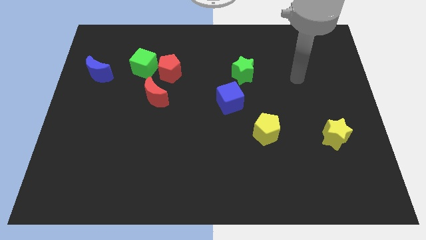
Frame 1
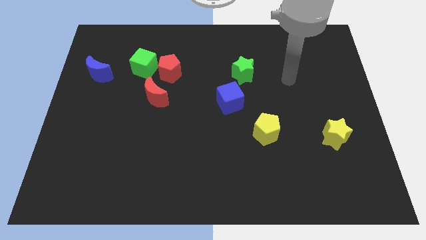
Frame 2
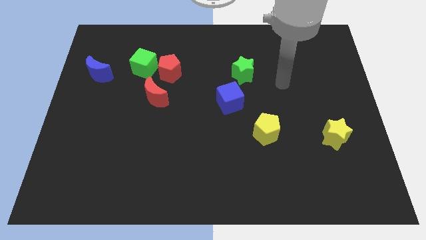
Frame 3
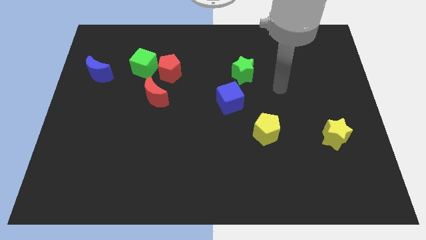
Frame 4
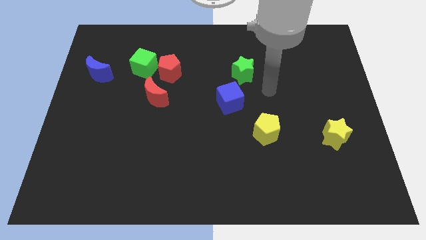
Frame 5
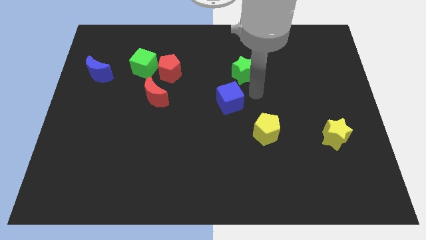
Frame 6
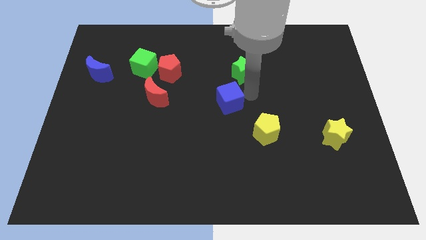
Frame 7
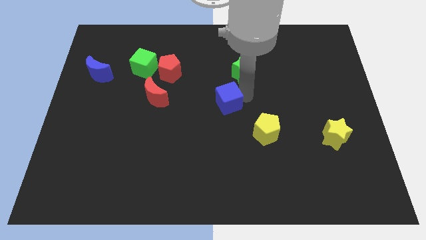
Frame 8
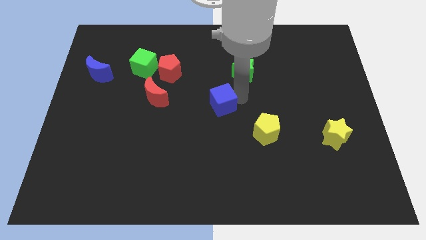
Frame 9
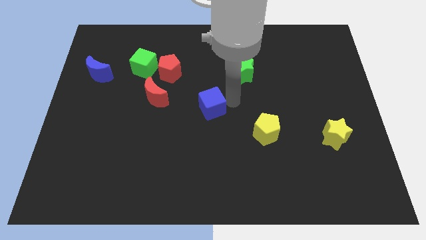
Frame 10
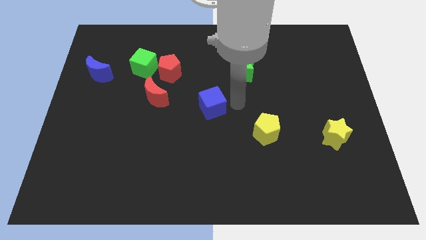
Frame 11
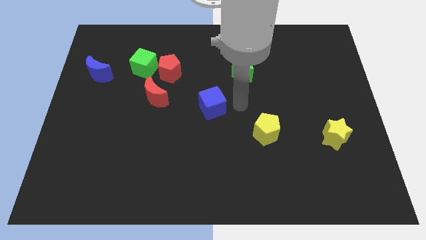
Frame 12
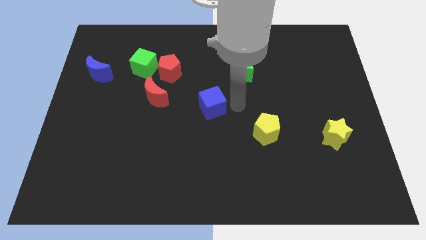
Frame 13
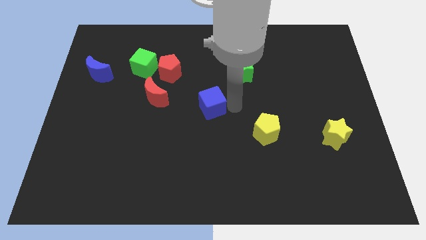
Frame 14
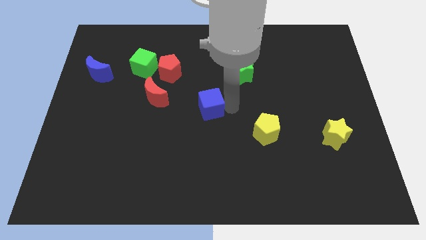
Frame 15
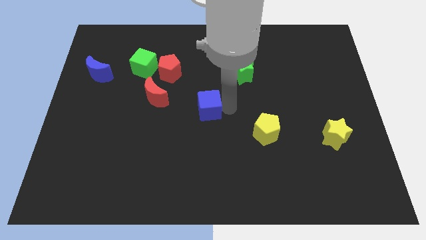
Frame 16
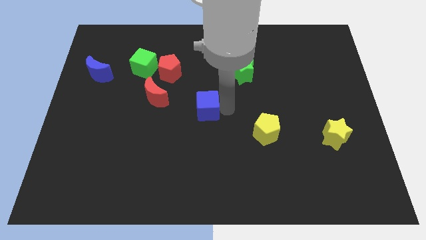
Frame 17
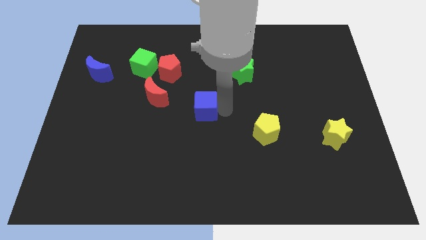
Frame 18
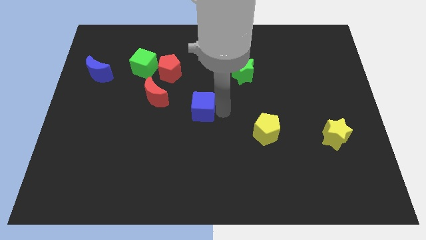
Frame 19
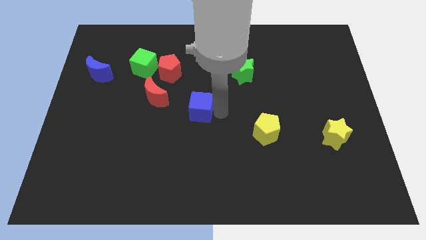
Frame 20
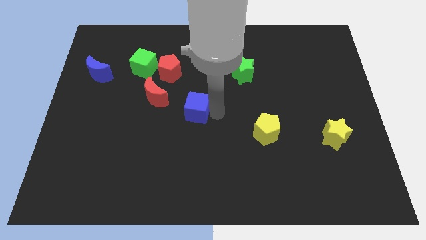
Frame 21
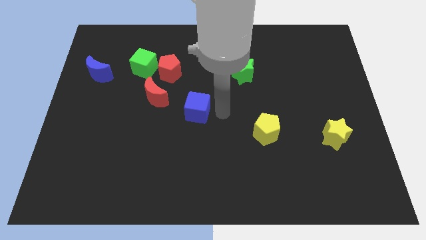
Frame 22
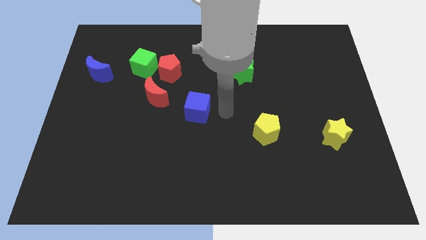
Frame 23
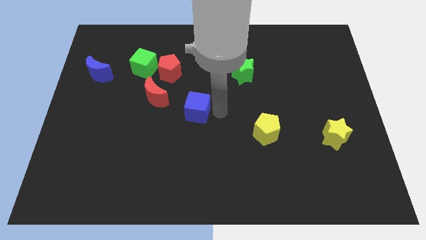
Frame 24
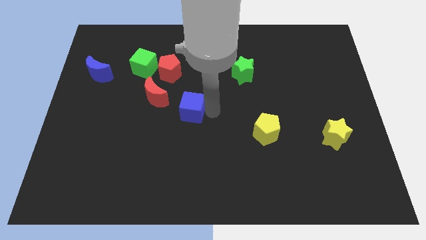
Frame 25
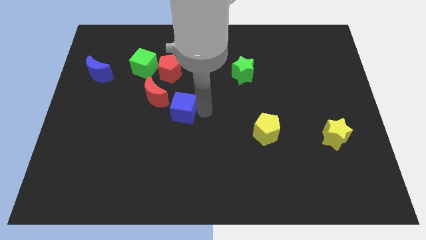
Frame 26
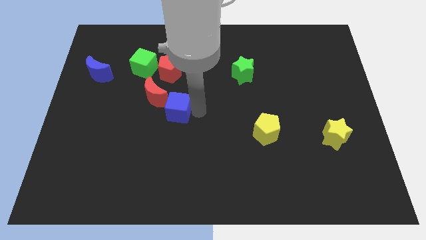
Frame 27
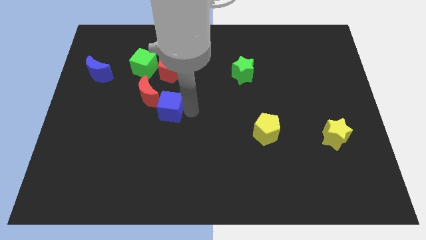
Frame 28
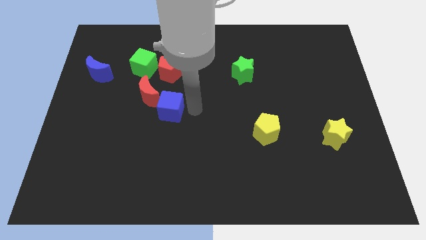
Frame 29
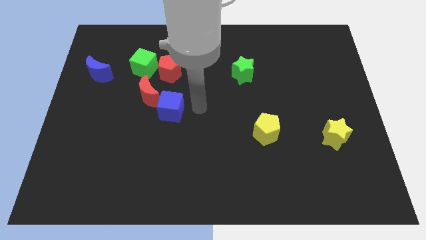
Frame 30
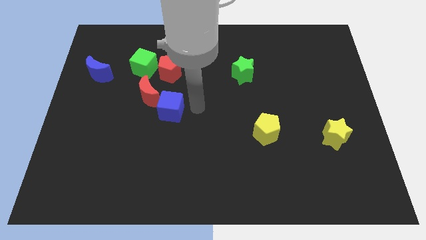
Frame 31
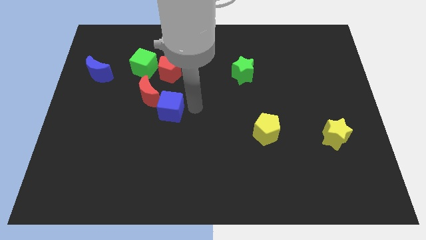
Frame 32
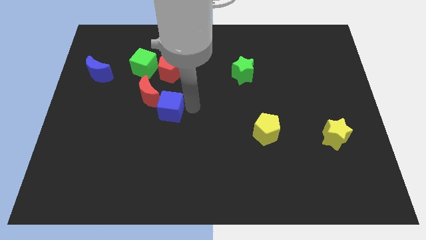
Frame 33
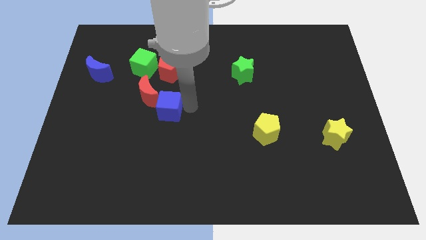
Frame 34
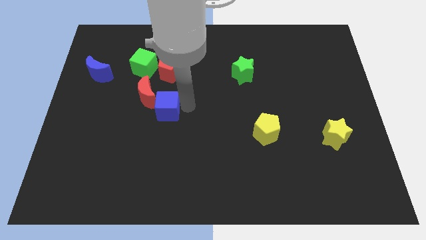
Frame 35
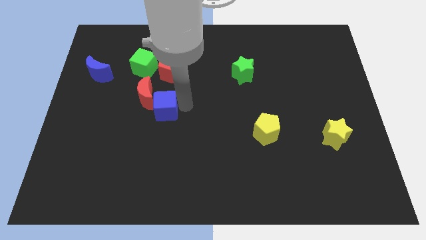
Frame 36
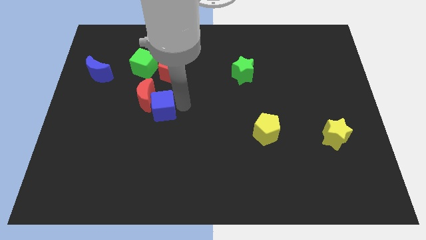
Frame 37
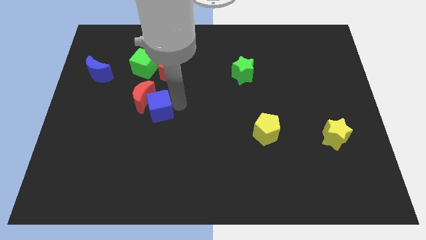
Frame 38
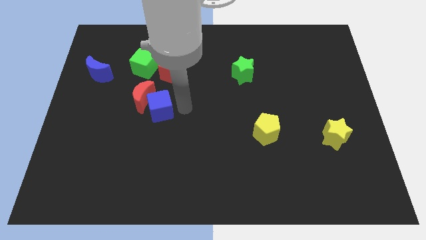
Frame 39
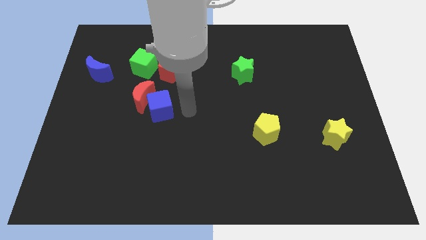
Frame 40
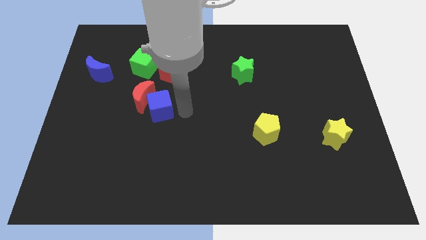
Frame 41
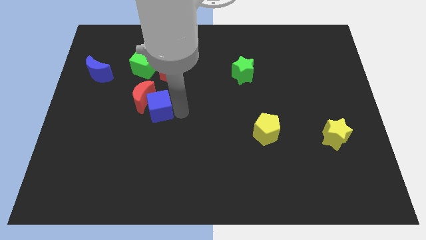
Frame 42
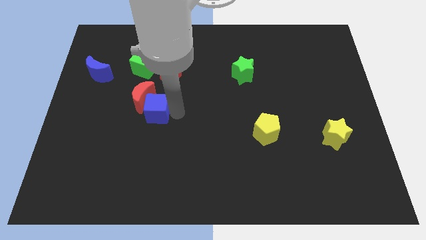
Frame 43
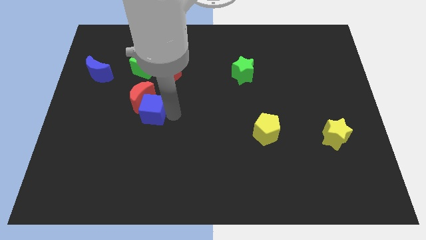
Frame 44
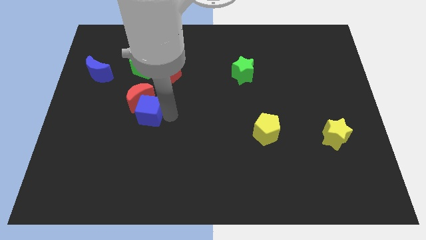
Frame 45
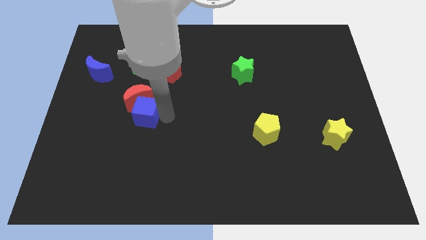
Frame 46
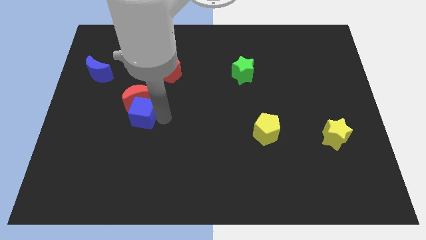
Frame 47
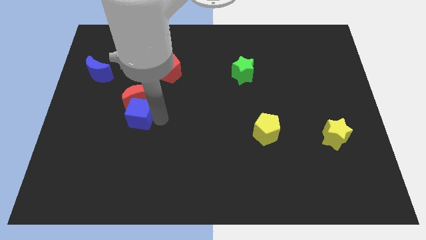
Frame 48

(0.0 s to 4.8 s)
move the blue cube left

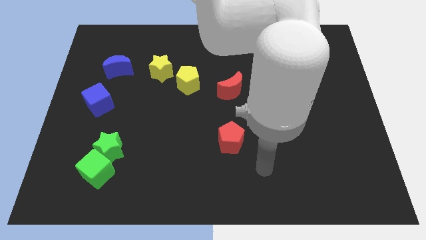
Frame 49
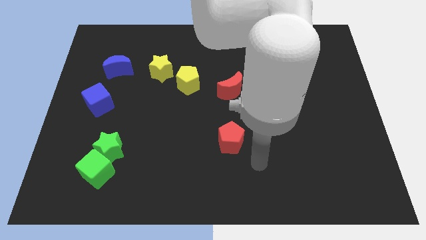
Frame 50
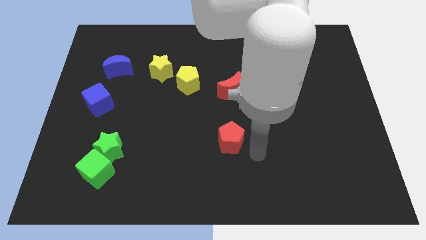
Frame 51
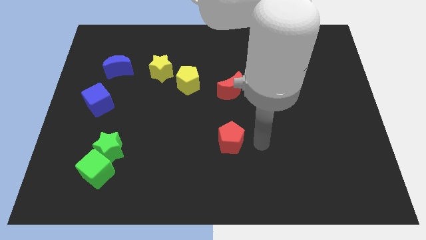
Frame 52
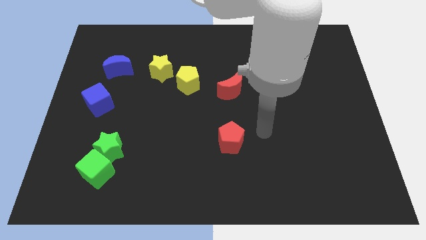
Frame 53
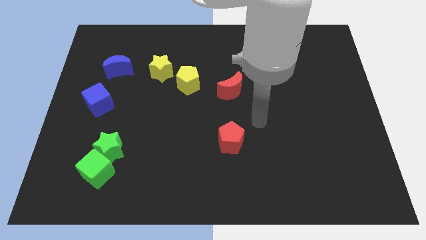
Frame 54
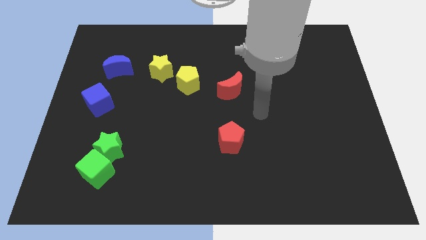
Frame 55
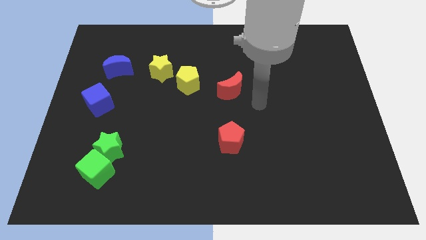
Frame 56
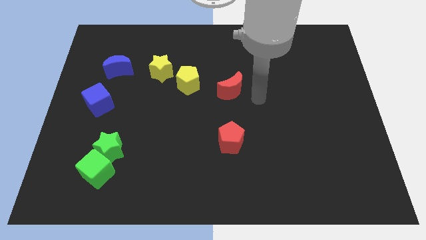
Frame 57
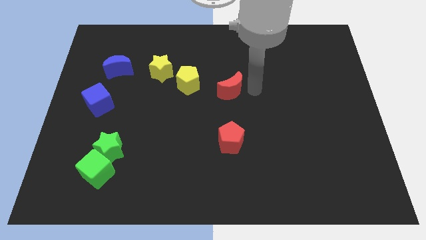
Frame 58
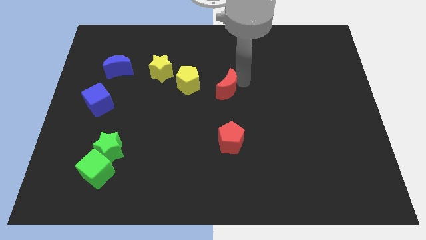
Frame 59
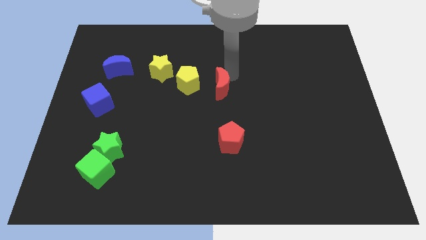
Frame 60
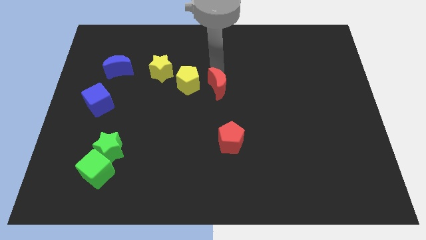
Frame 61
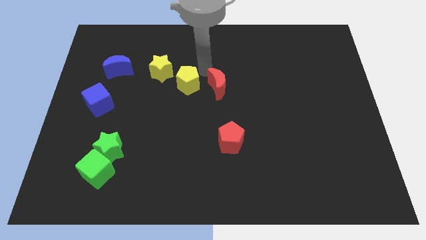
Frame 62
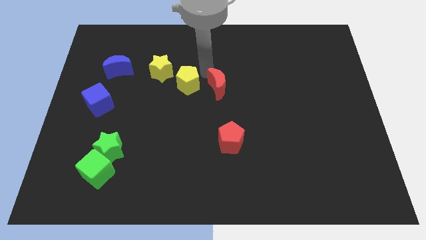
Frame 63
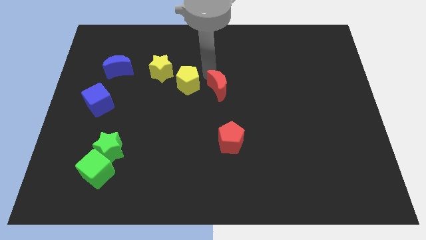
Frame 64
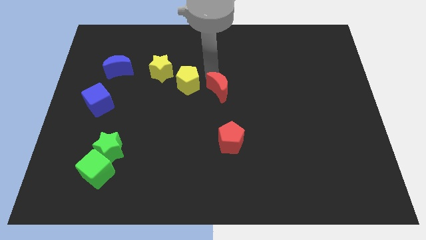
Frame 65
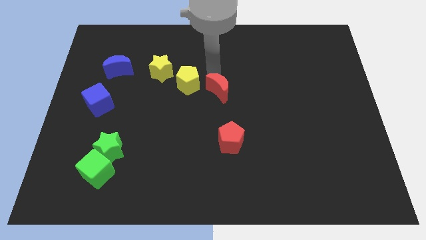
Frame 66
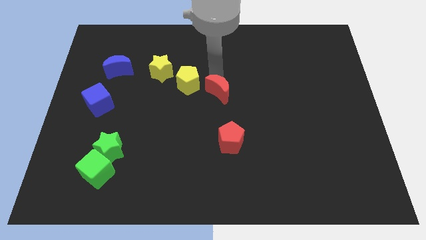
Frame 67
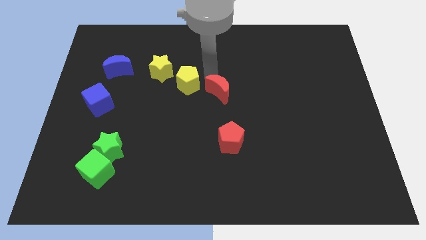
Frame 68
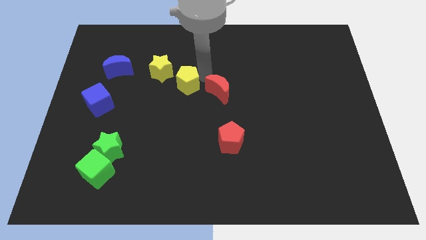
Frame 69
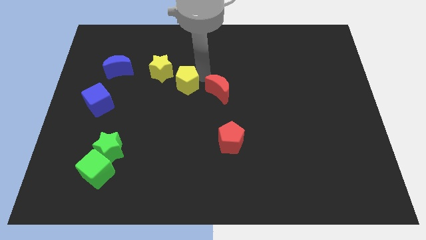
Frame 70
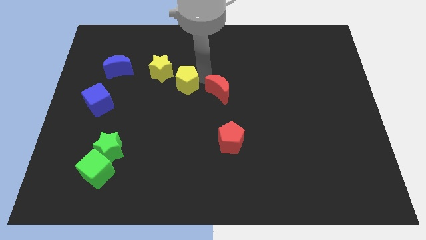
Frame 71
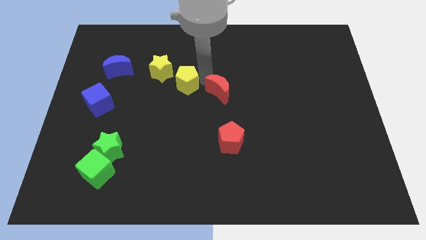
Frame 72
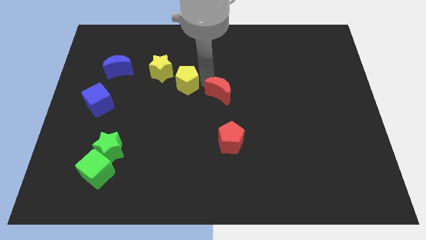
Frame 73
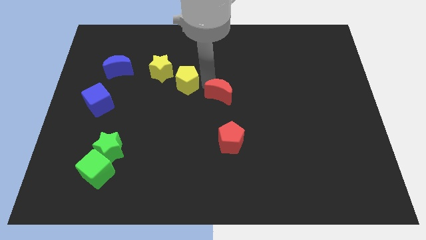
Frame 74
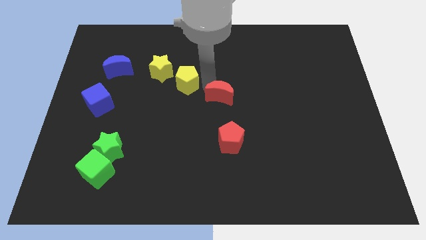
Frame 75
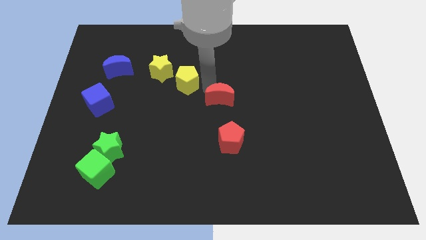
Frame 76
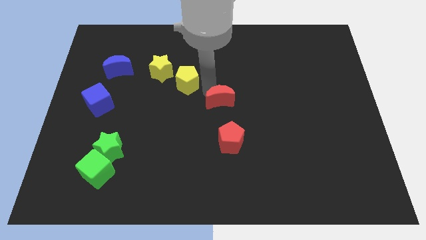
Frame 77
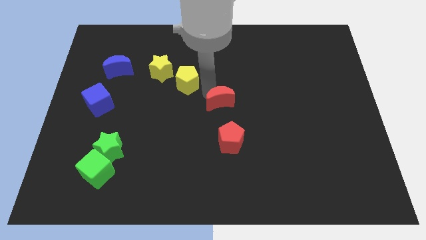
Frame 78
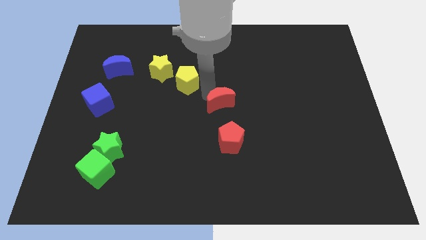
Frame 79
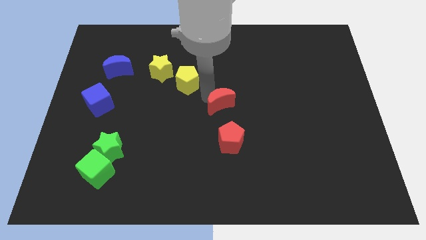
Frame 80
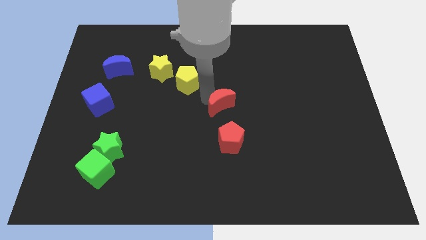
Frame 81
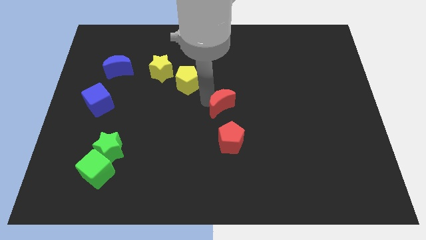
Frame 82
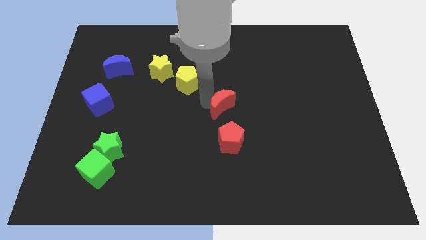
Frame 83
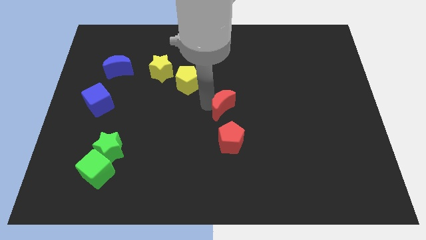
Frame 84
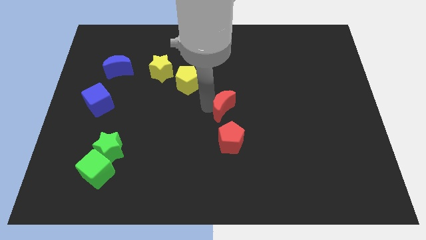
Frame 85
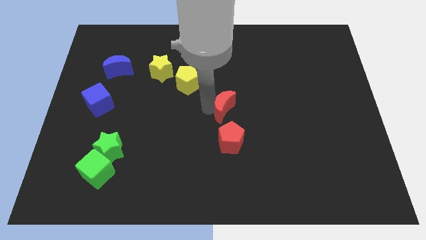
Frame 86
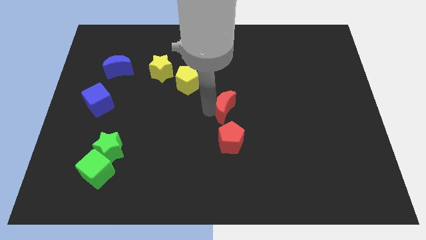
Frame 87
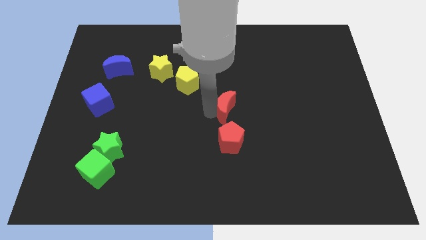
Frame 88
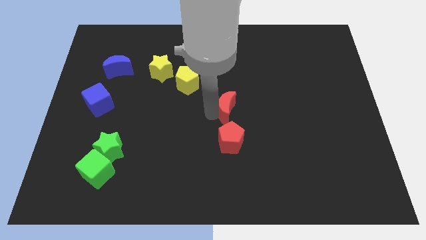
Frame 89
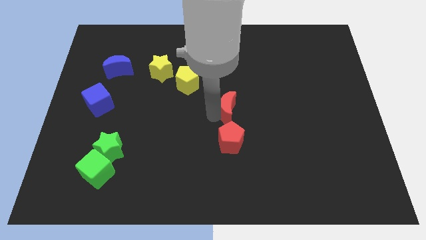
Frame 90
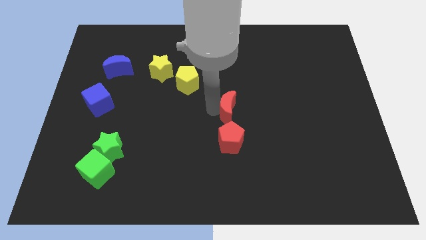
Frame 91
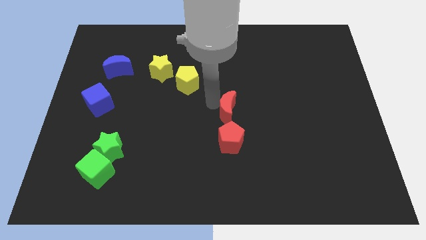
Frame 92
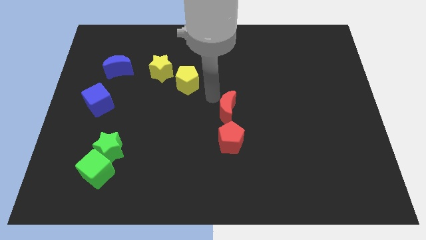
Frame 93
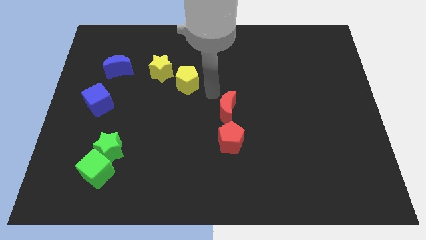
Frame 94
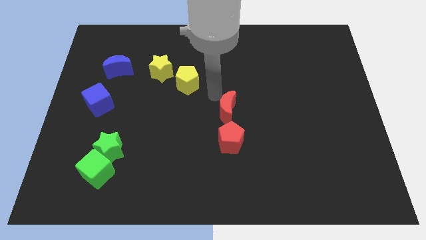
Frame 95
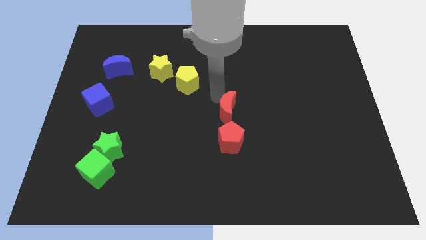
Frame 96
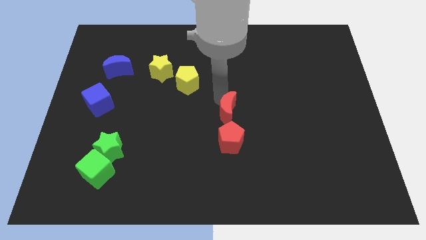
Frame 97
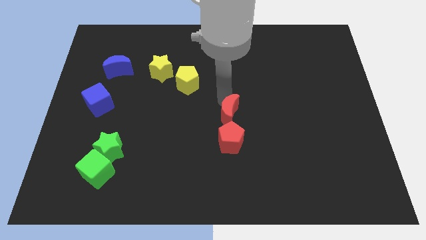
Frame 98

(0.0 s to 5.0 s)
push the red moon a little bit downwards
